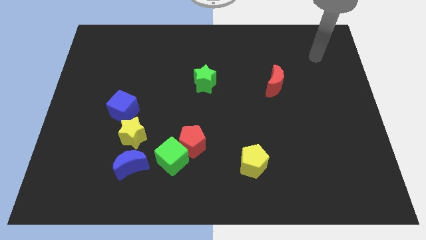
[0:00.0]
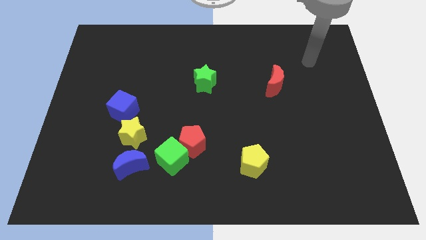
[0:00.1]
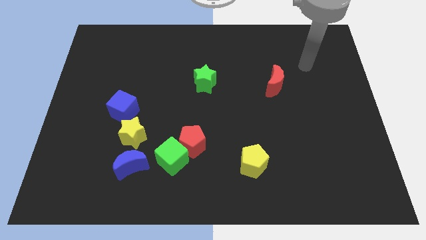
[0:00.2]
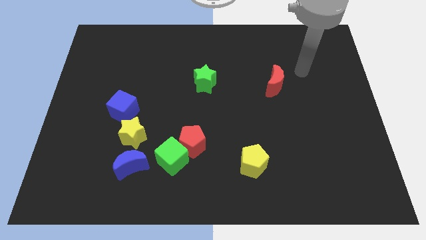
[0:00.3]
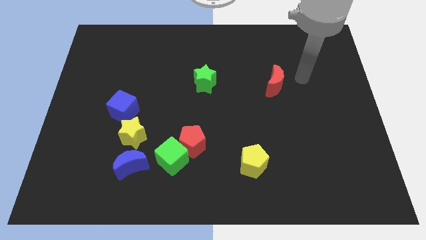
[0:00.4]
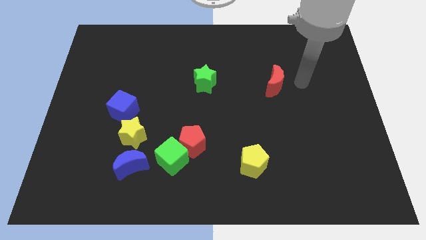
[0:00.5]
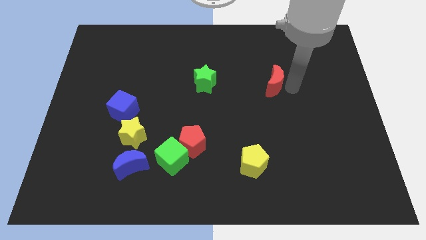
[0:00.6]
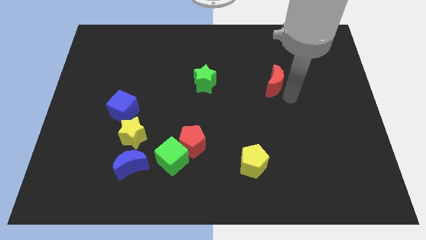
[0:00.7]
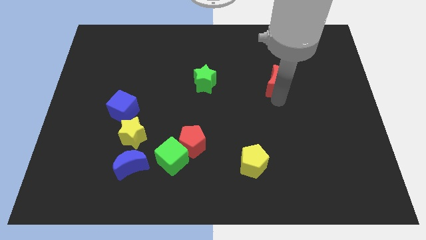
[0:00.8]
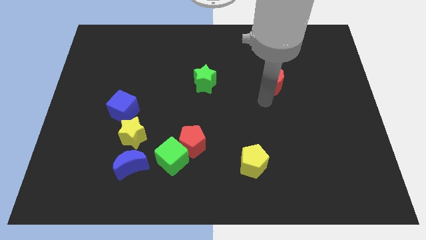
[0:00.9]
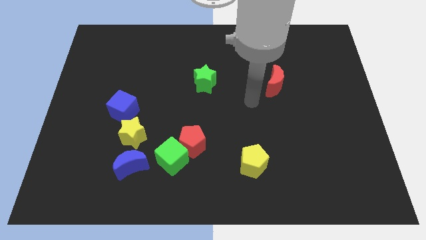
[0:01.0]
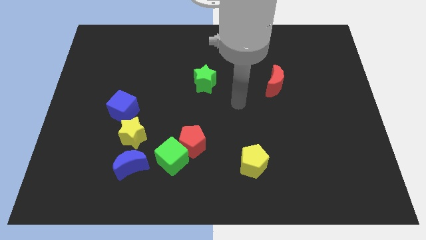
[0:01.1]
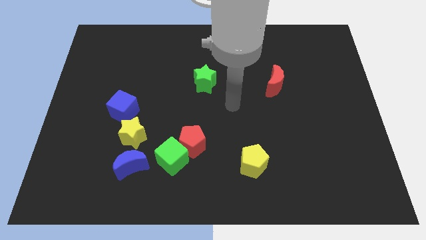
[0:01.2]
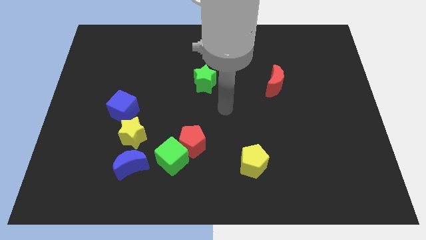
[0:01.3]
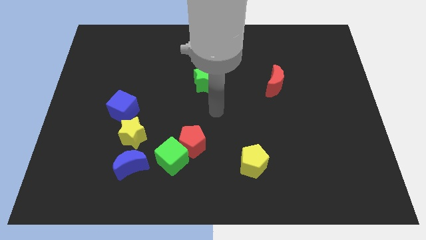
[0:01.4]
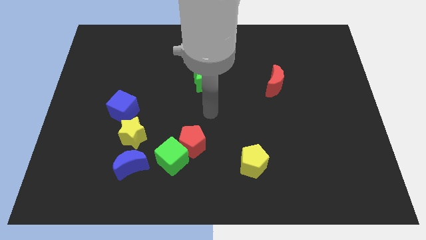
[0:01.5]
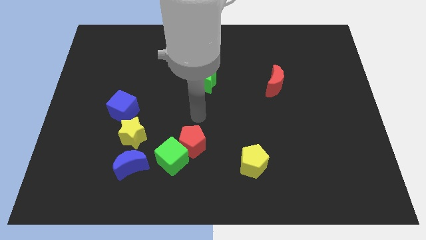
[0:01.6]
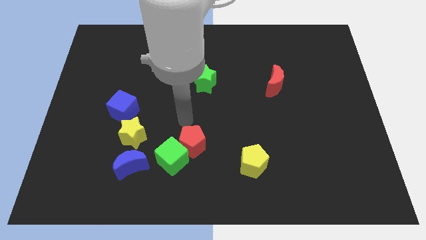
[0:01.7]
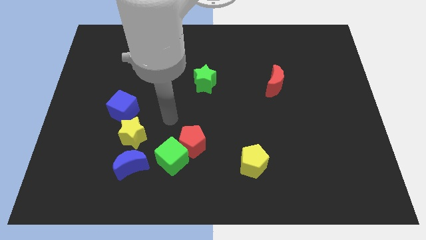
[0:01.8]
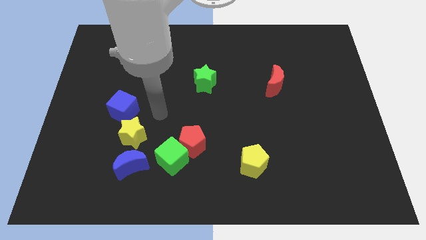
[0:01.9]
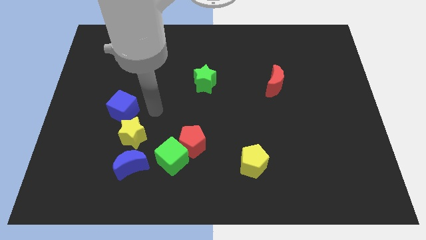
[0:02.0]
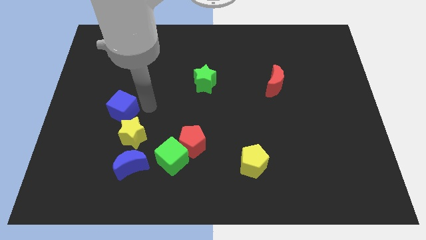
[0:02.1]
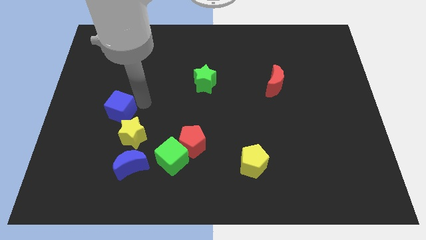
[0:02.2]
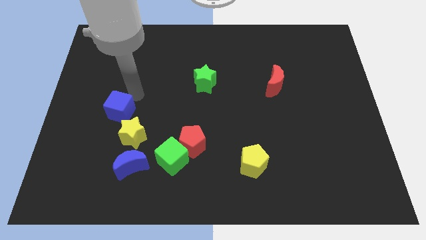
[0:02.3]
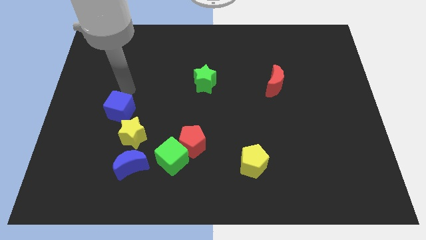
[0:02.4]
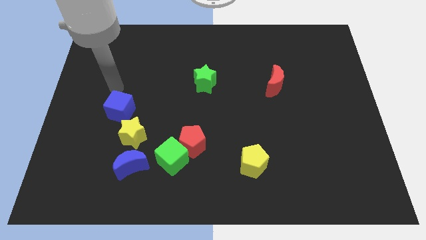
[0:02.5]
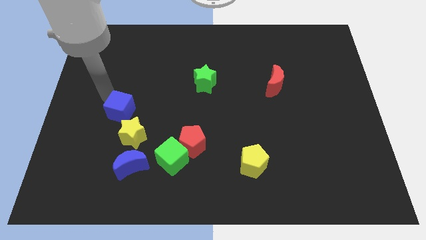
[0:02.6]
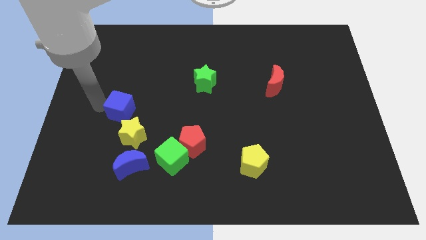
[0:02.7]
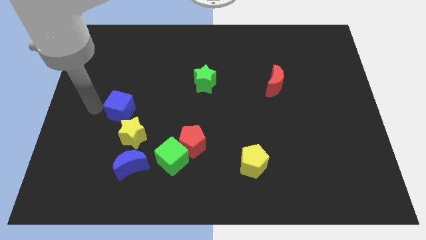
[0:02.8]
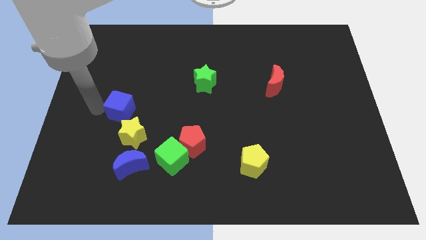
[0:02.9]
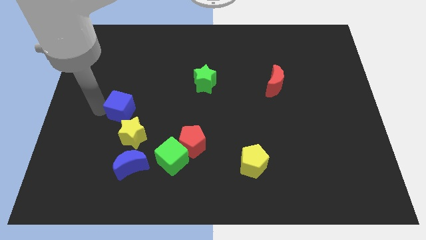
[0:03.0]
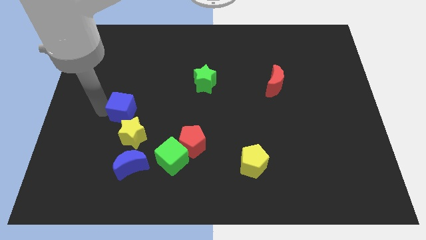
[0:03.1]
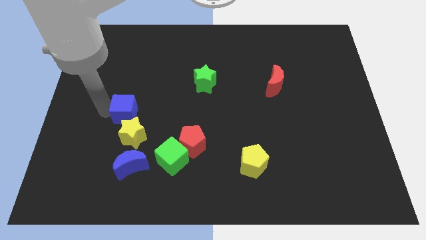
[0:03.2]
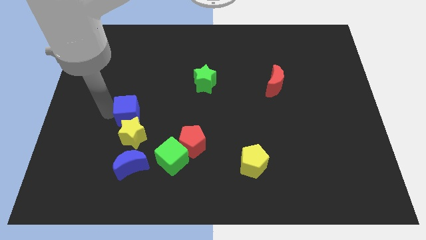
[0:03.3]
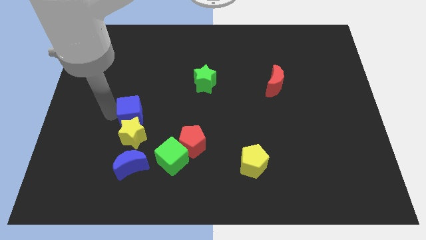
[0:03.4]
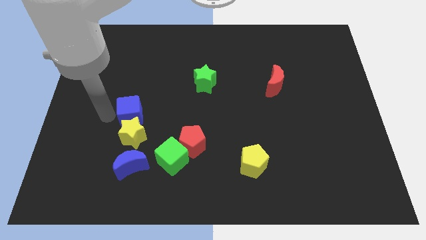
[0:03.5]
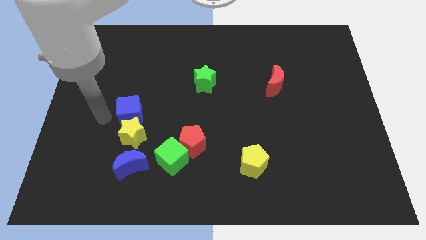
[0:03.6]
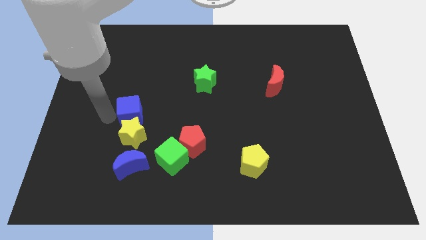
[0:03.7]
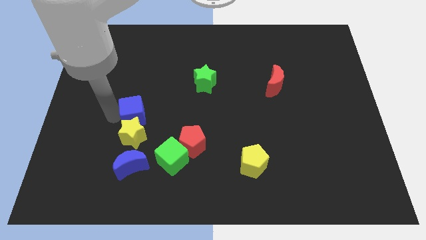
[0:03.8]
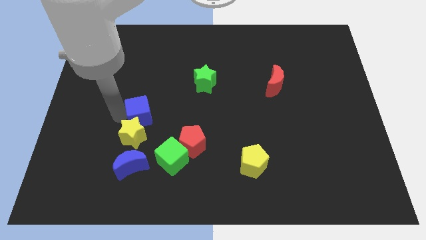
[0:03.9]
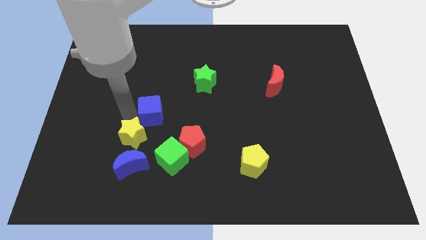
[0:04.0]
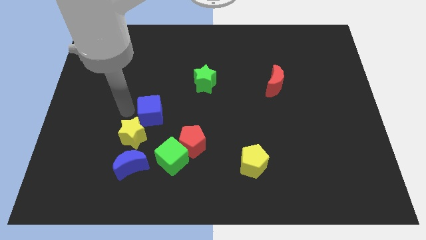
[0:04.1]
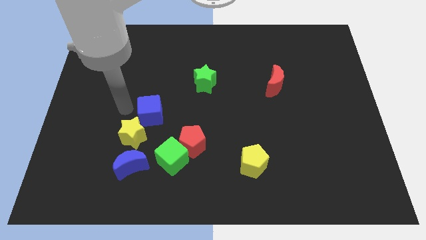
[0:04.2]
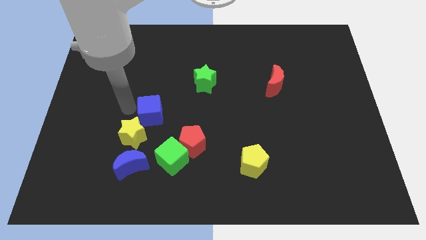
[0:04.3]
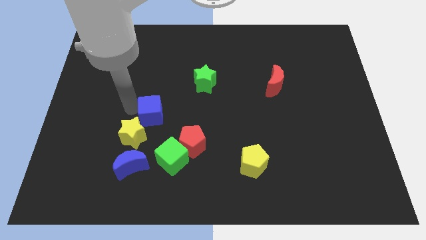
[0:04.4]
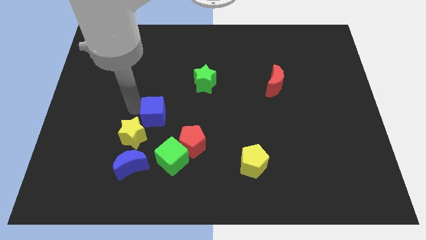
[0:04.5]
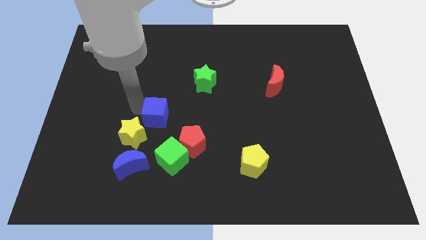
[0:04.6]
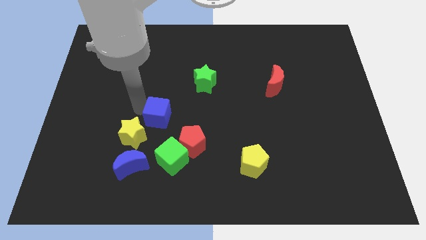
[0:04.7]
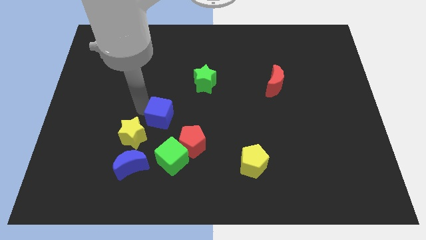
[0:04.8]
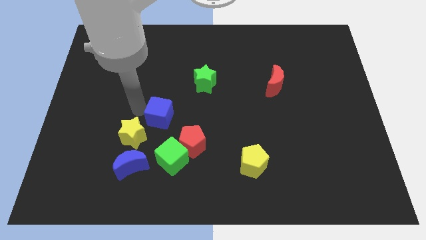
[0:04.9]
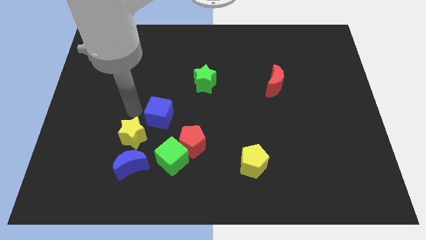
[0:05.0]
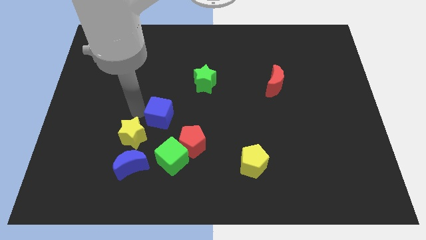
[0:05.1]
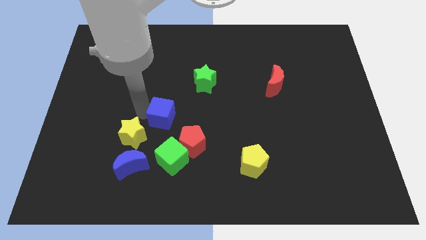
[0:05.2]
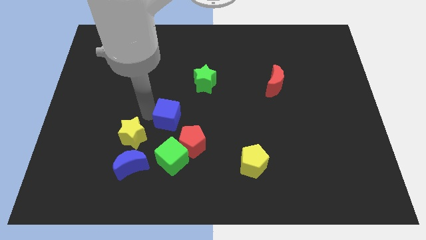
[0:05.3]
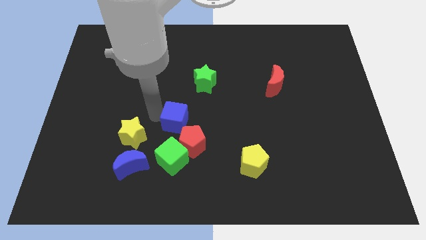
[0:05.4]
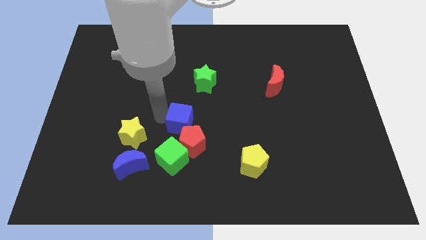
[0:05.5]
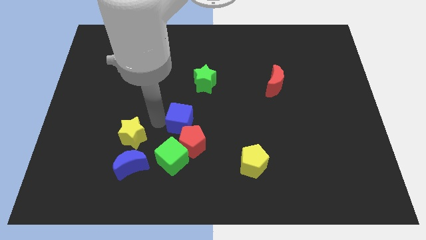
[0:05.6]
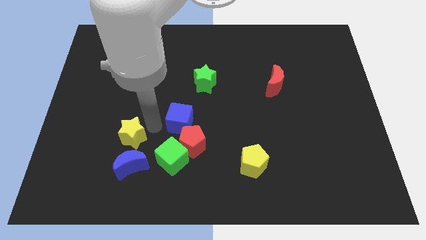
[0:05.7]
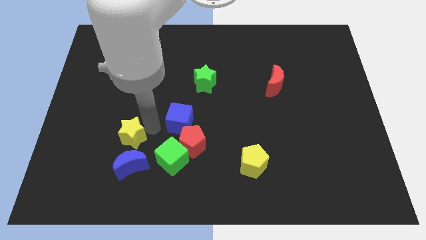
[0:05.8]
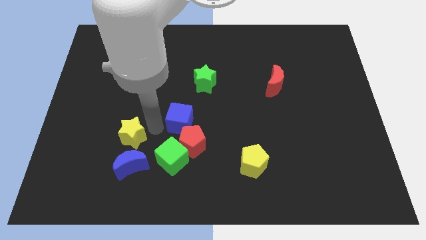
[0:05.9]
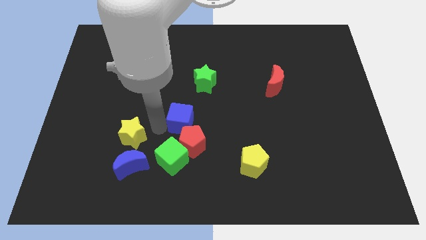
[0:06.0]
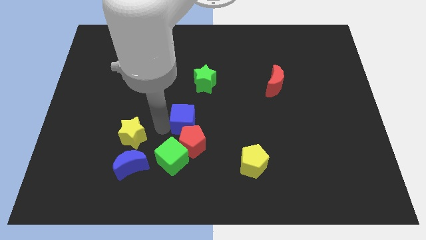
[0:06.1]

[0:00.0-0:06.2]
put the blue cube to the bottom side of the green star

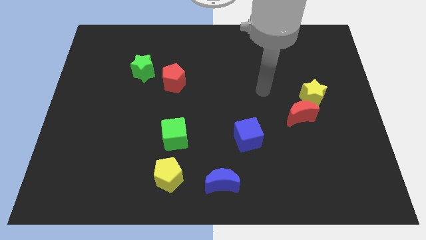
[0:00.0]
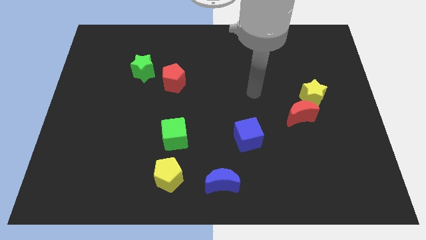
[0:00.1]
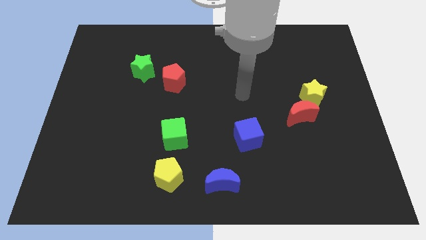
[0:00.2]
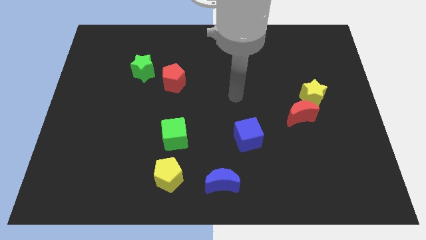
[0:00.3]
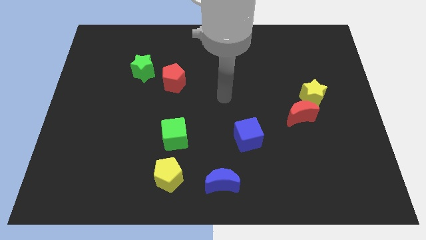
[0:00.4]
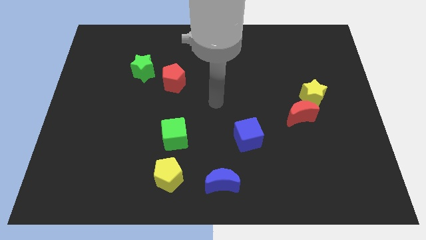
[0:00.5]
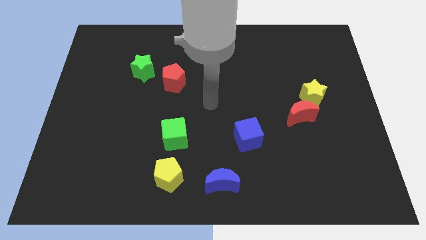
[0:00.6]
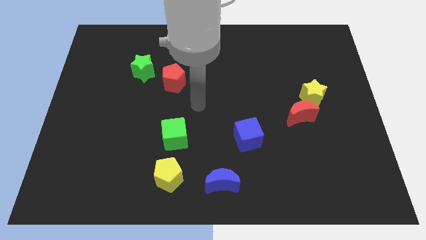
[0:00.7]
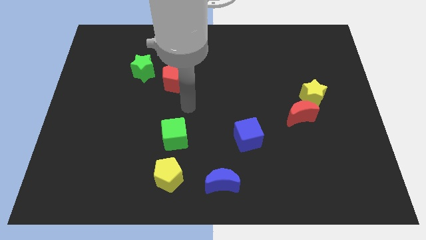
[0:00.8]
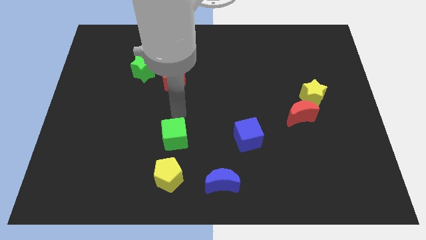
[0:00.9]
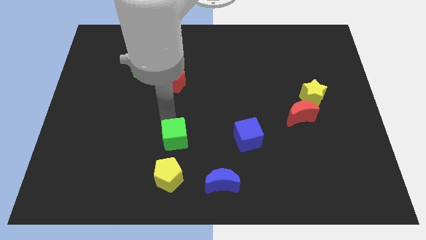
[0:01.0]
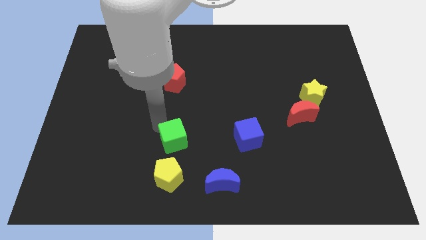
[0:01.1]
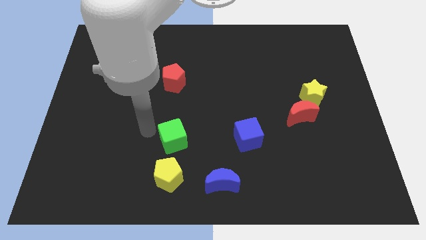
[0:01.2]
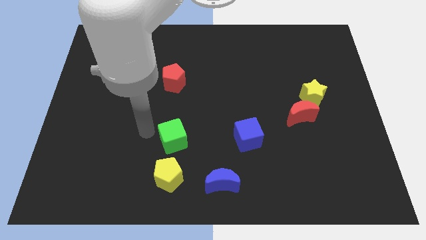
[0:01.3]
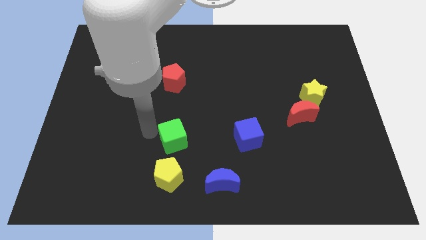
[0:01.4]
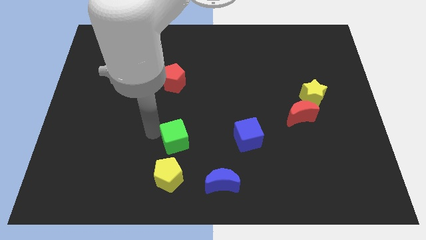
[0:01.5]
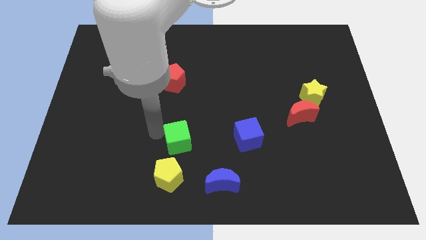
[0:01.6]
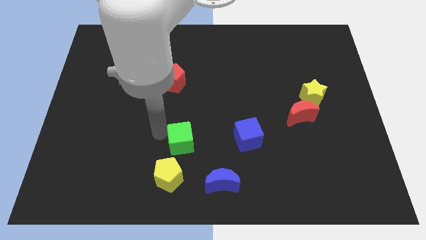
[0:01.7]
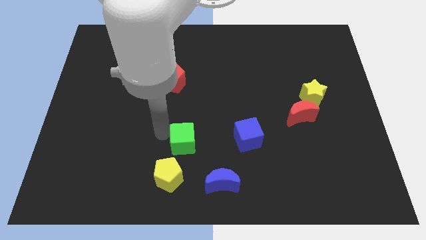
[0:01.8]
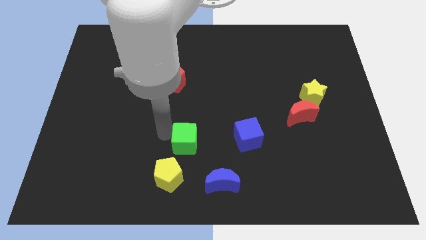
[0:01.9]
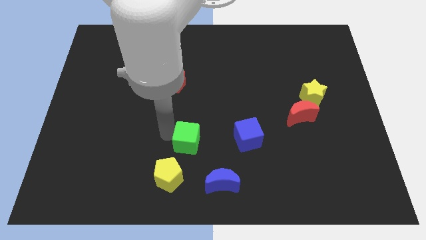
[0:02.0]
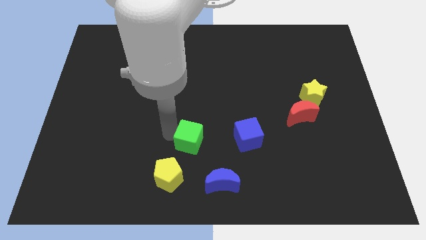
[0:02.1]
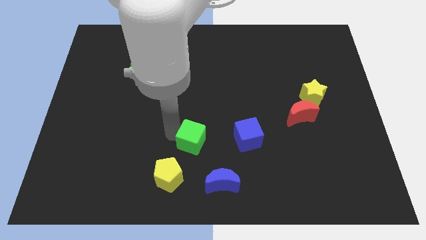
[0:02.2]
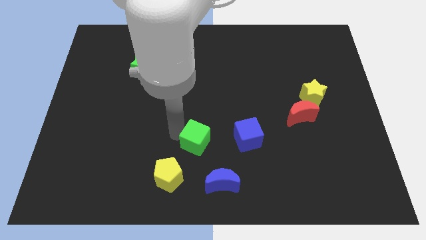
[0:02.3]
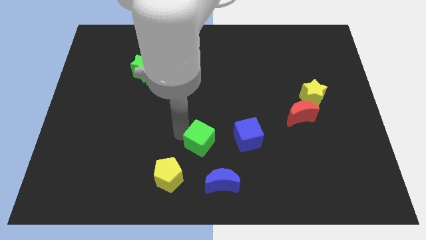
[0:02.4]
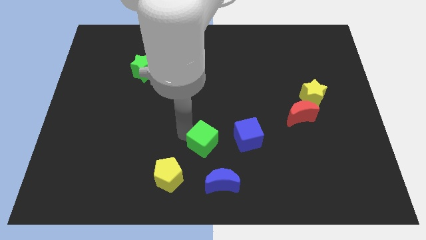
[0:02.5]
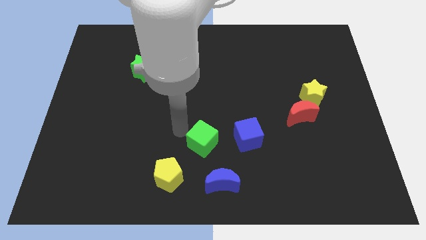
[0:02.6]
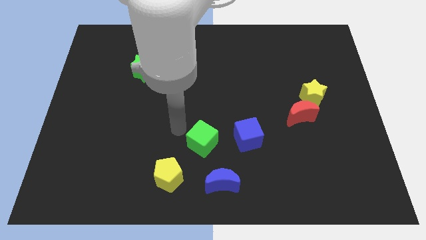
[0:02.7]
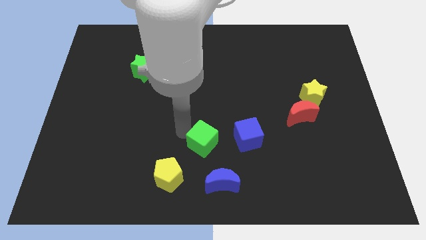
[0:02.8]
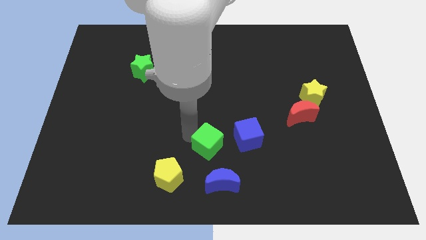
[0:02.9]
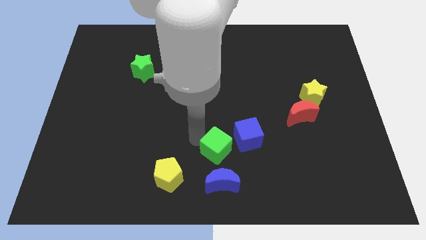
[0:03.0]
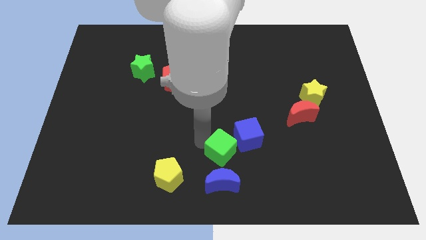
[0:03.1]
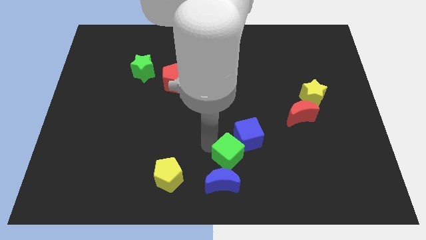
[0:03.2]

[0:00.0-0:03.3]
push the green cube to the top right side of the blue moon
